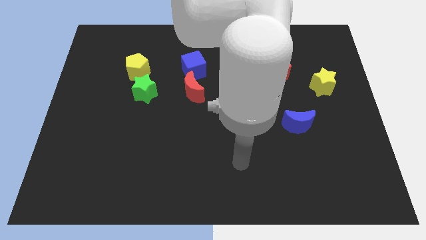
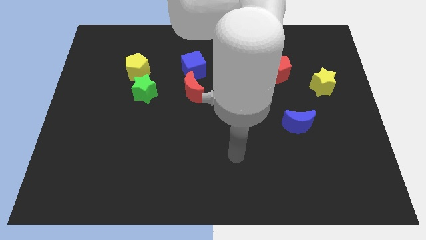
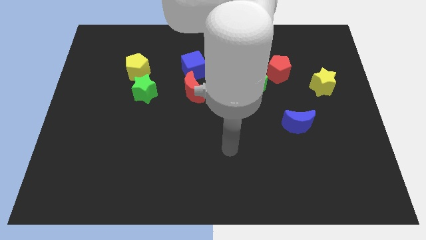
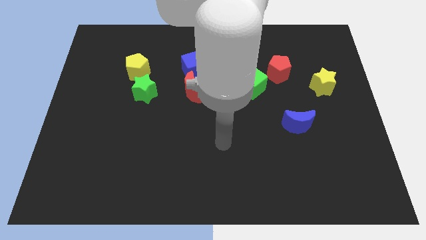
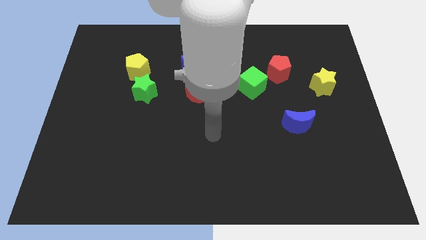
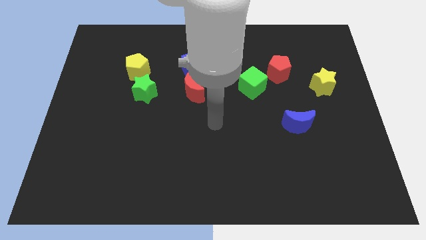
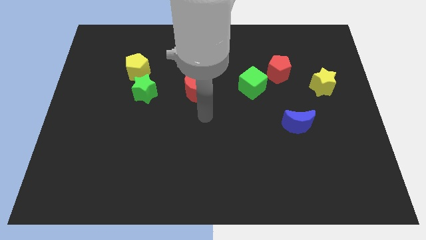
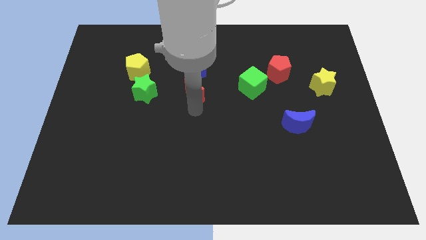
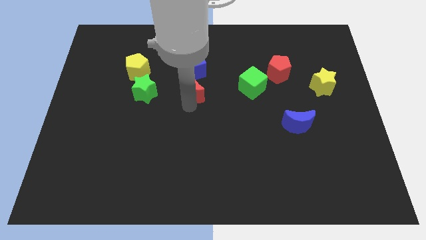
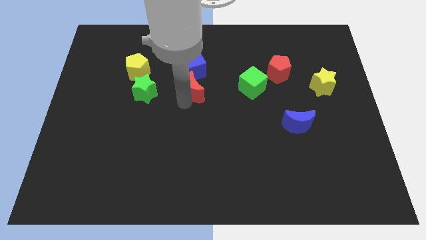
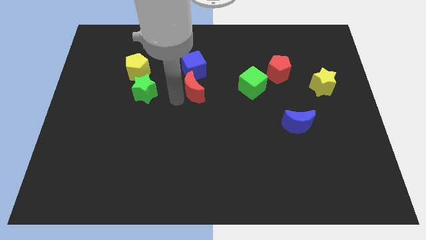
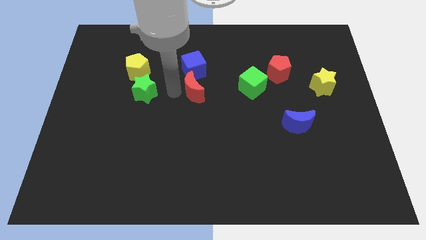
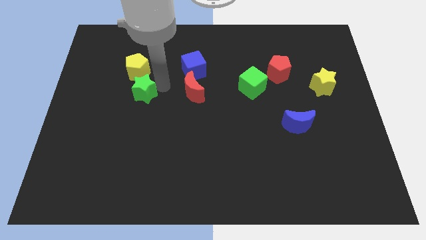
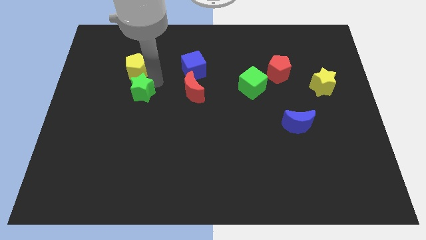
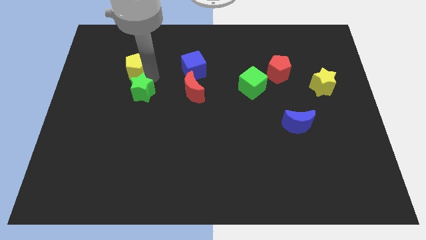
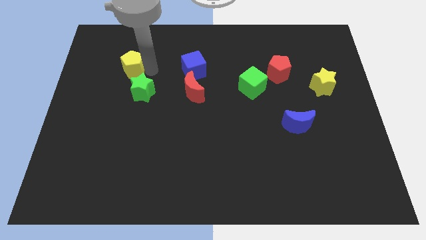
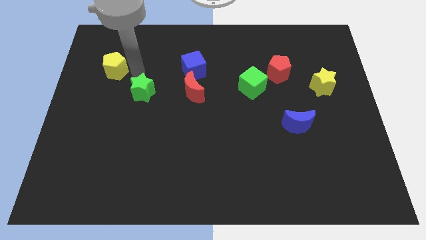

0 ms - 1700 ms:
pull the green star apart from the yellow pentagon

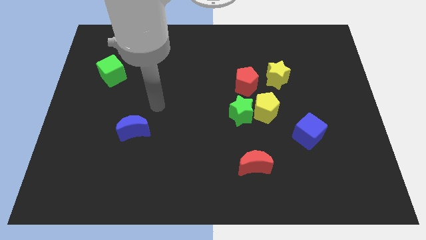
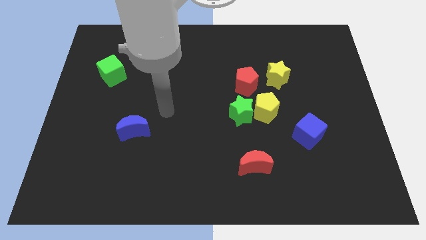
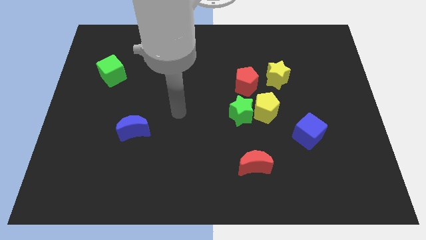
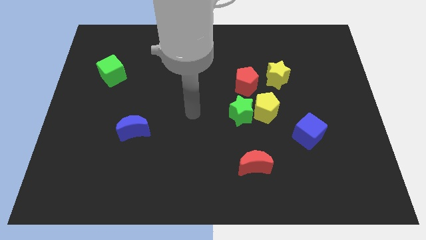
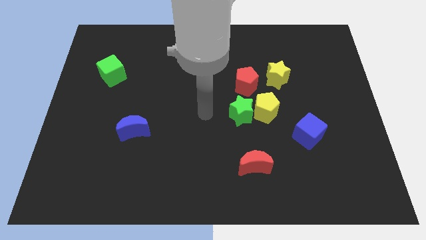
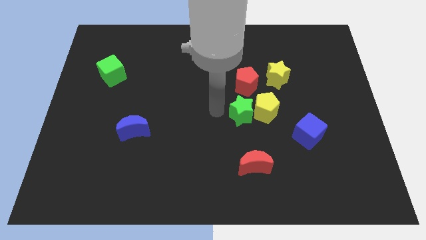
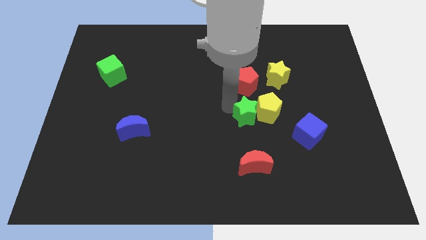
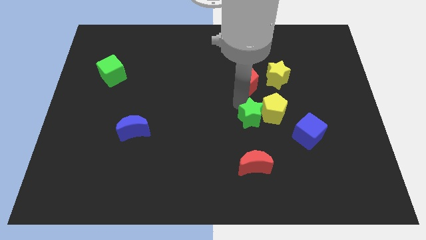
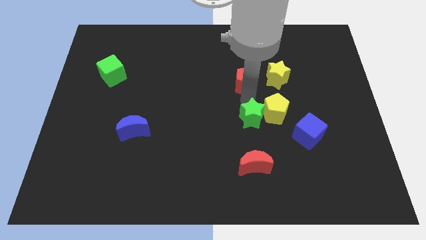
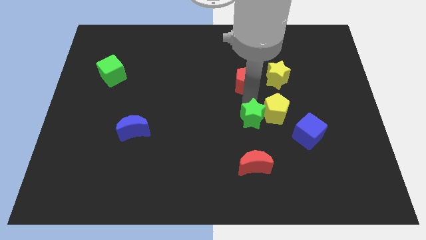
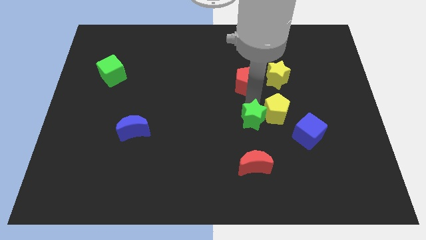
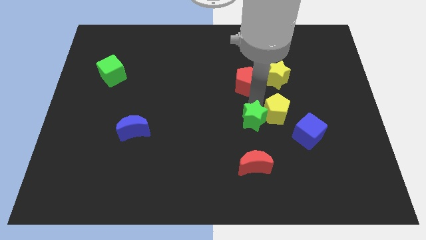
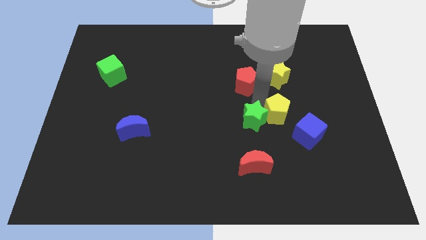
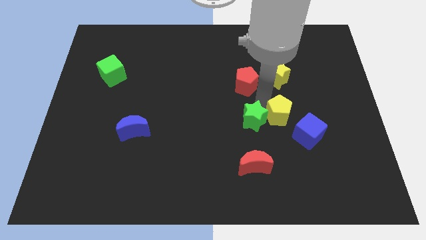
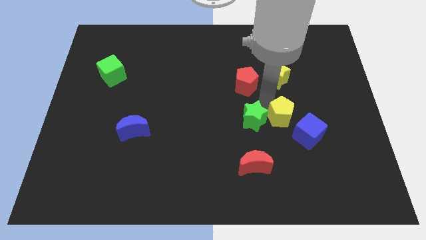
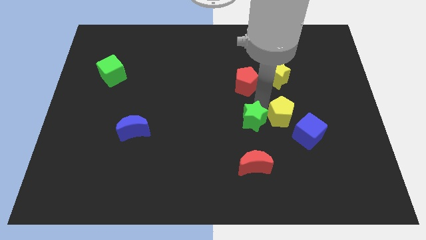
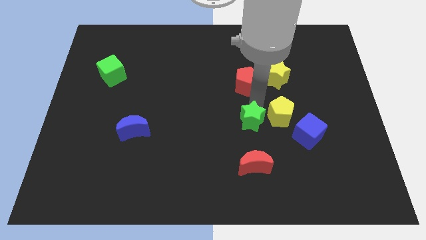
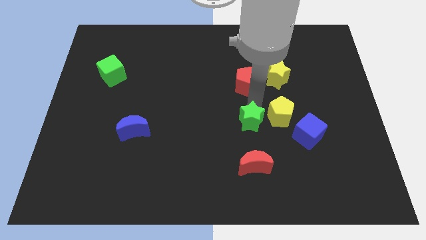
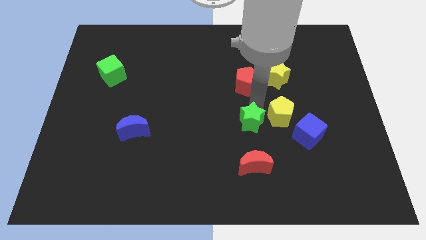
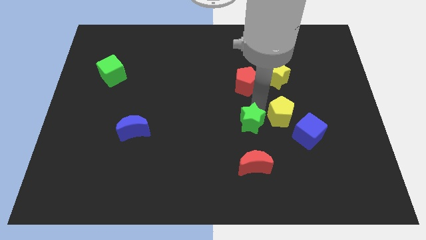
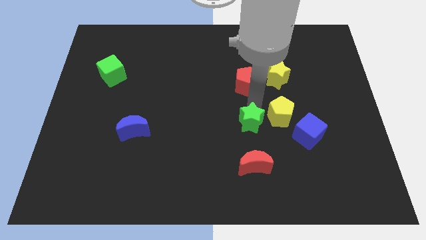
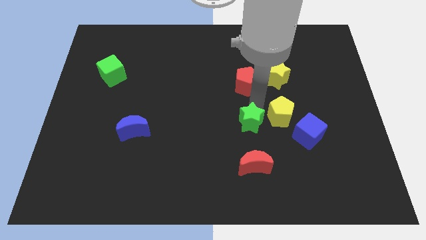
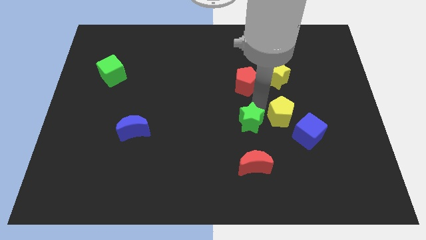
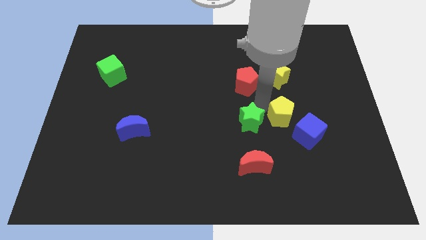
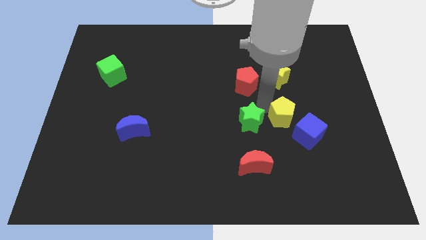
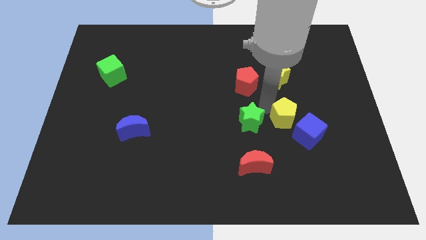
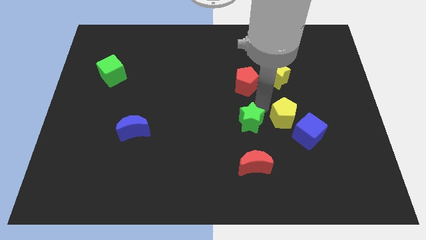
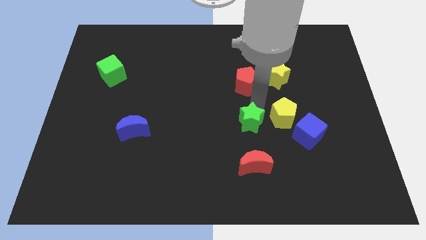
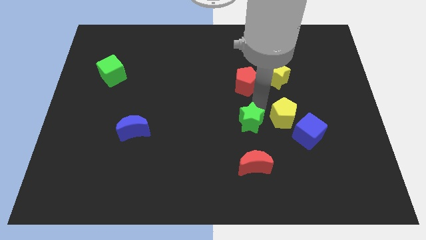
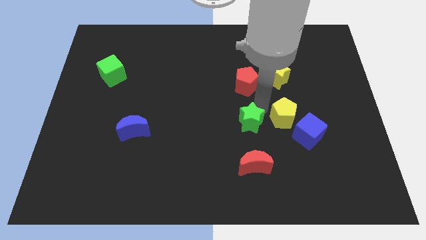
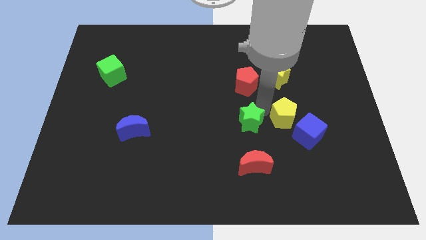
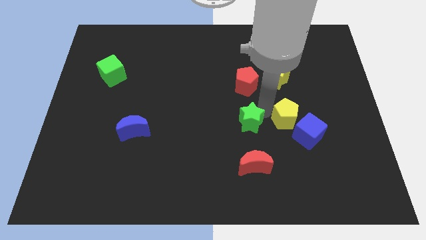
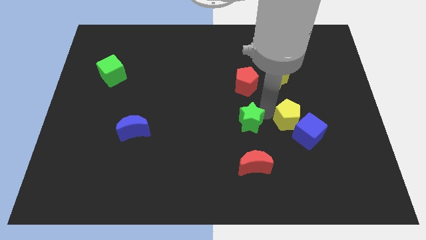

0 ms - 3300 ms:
move the yellow pentagon away from the green star and red pentagon

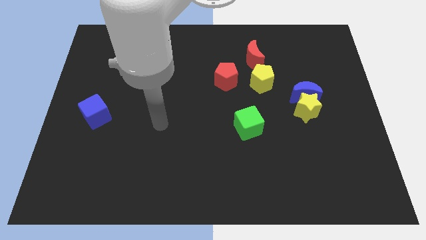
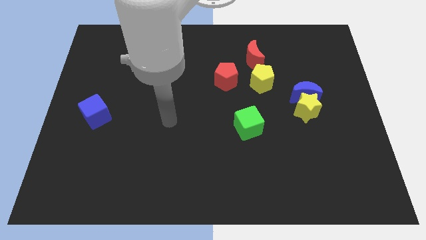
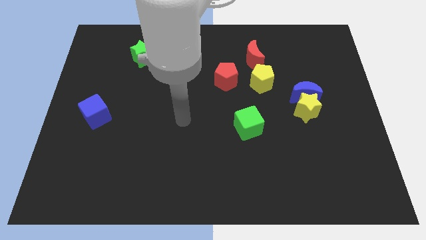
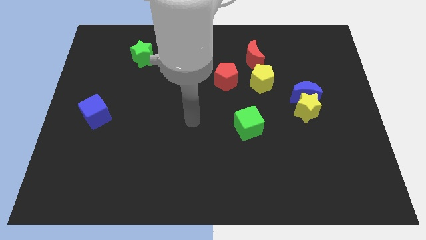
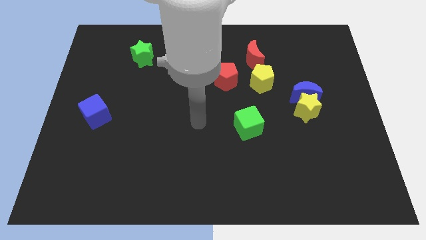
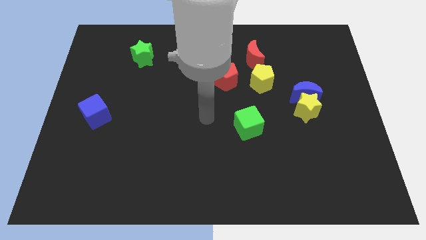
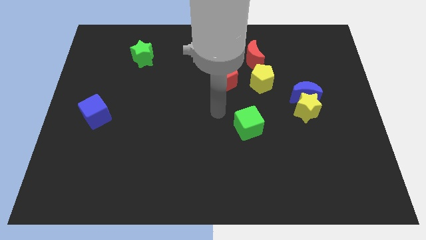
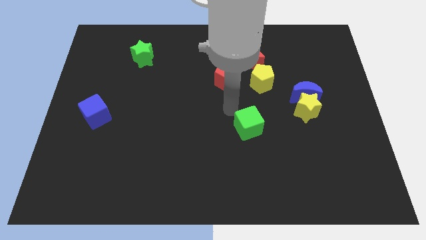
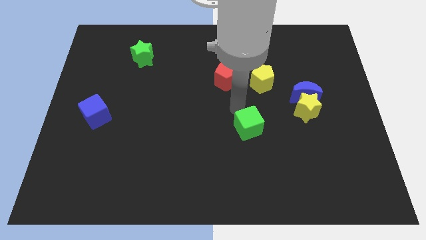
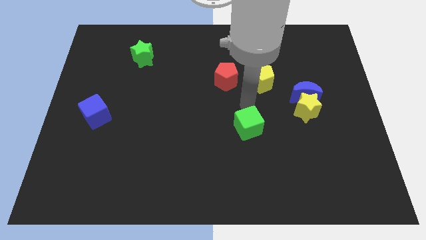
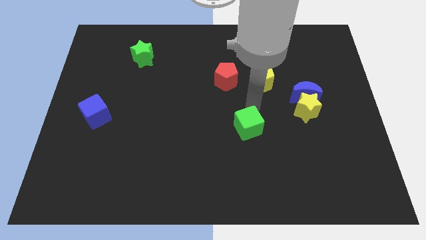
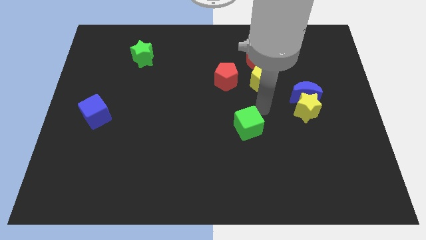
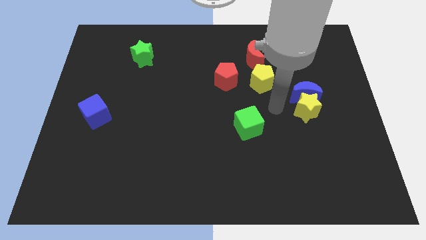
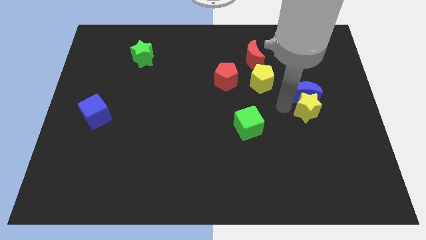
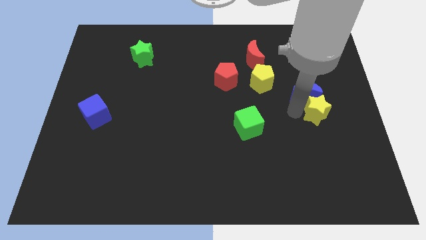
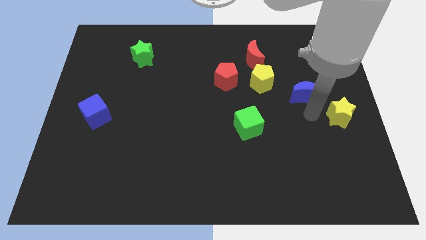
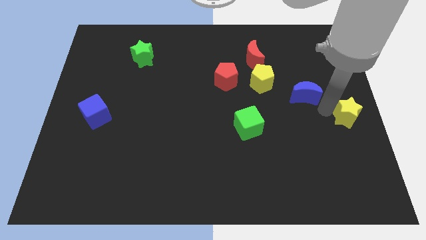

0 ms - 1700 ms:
move the blue moon away from the yellow star

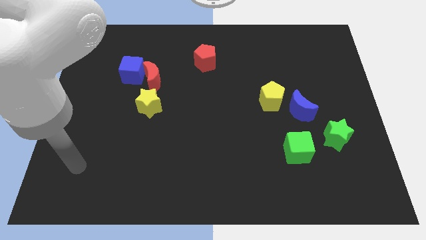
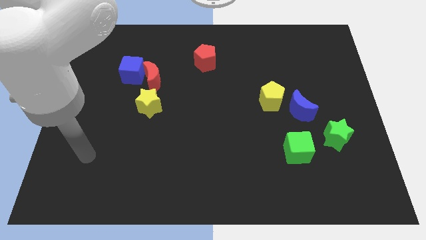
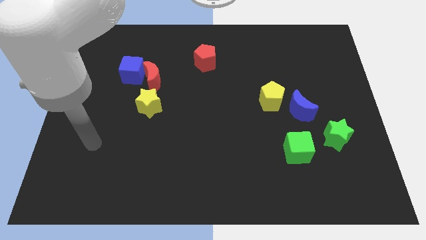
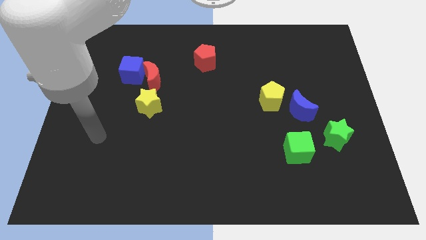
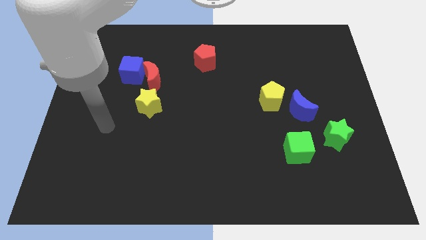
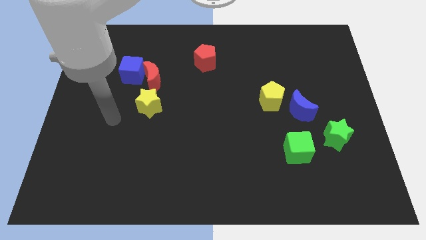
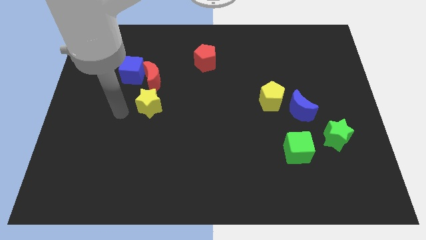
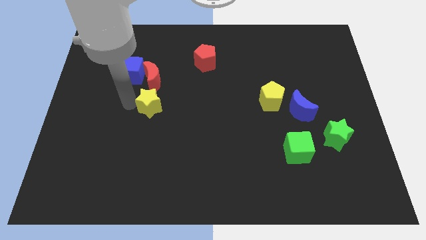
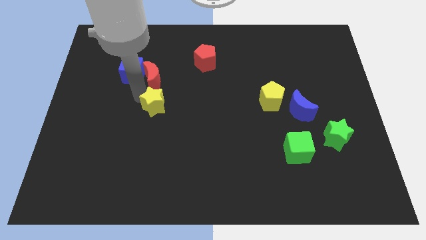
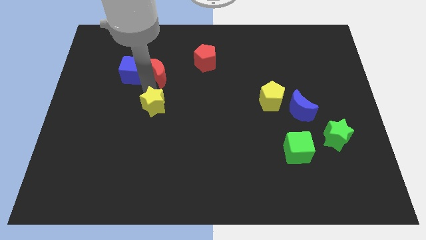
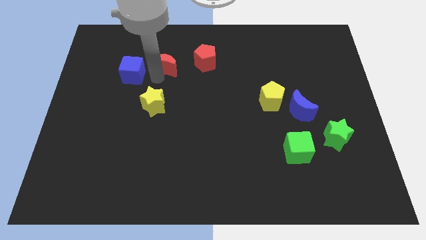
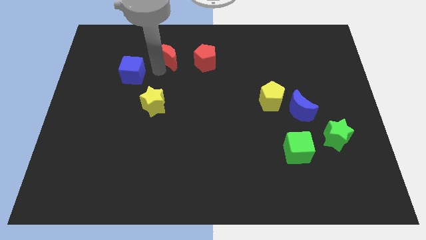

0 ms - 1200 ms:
separate the blue cube from the red moon

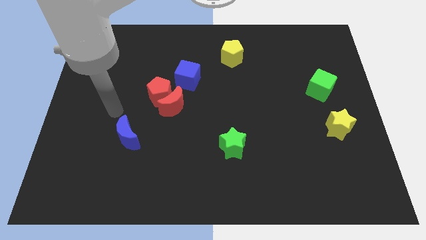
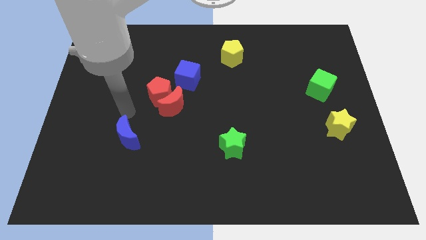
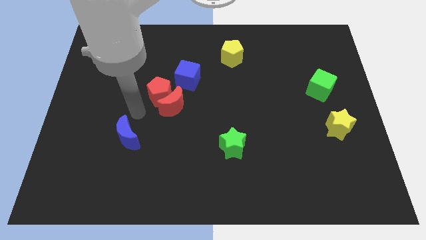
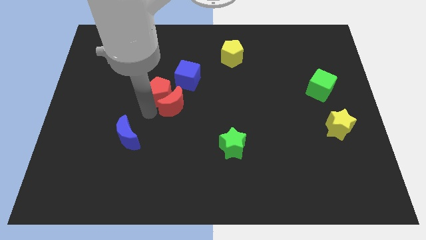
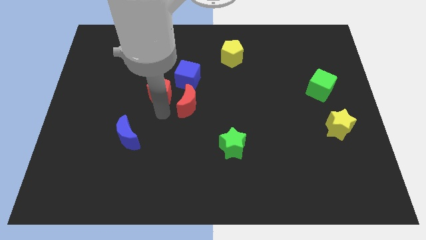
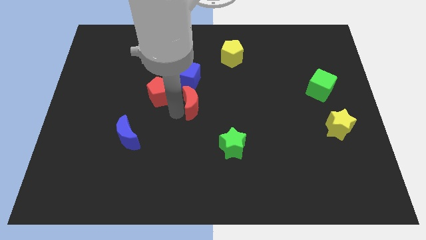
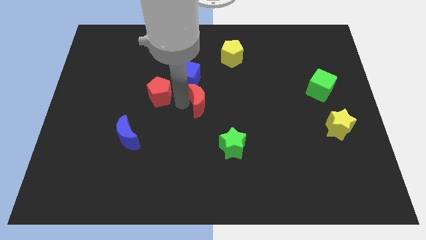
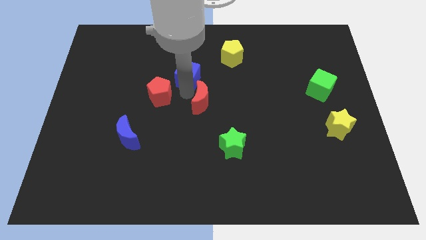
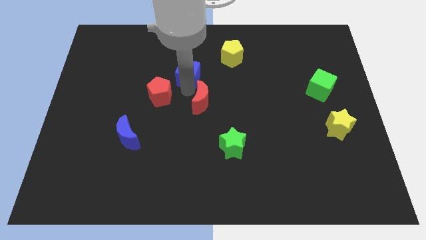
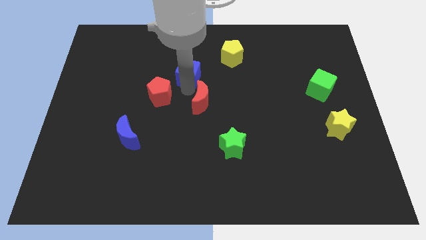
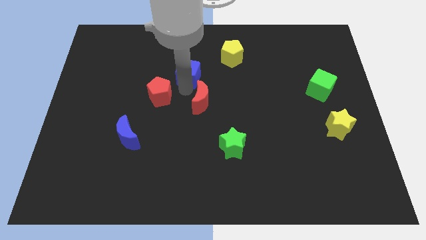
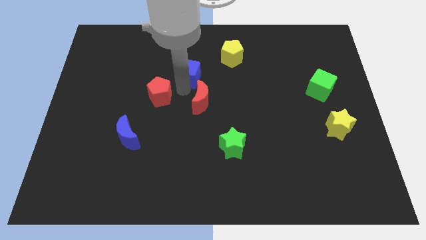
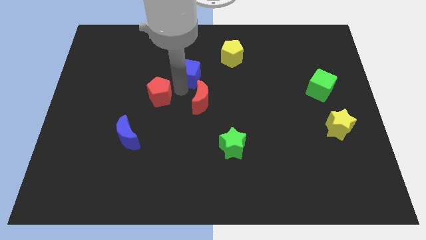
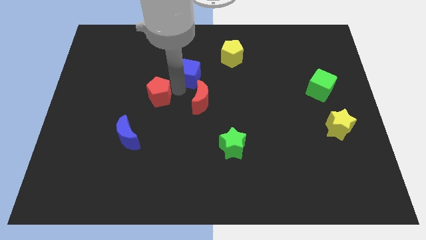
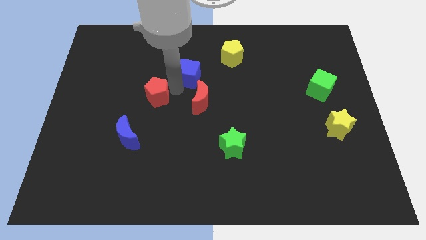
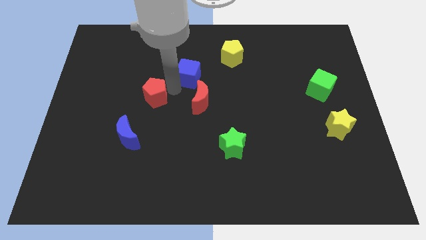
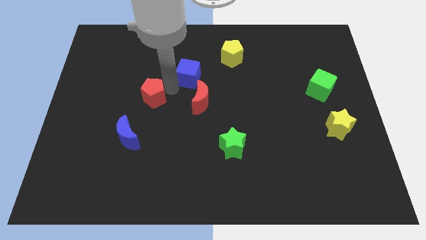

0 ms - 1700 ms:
move the red pentagon away from the red moon and blue cube
